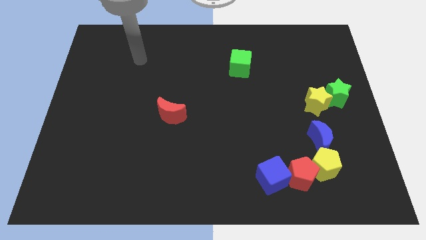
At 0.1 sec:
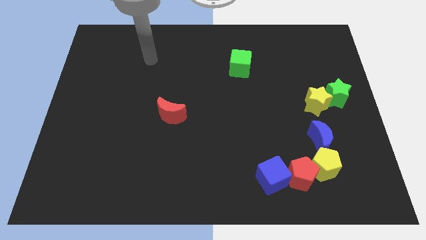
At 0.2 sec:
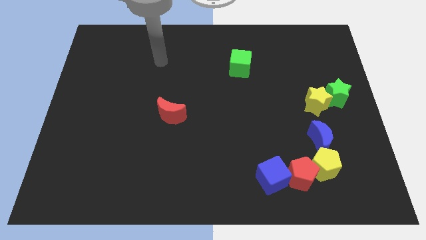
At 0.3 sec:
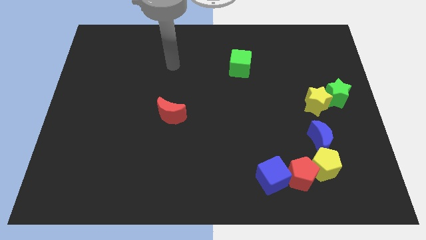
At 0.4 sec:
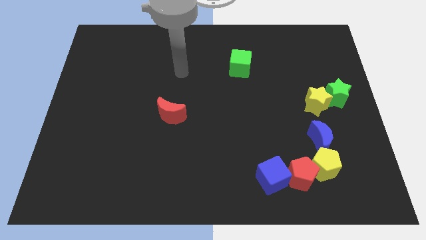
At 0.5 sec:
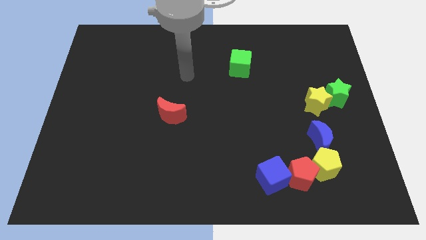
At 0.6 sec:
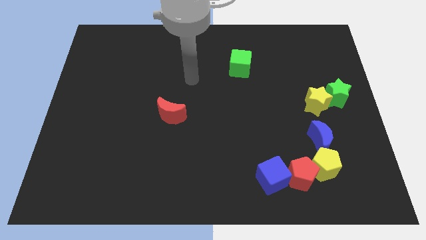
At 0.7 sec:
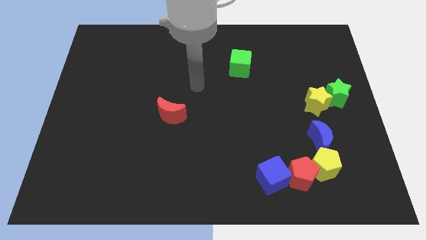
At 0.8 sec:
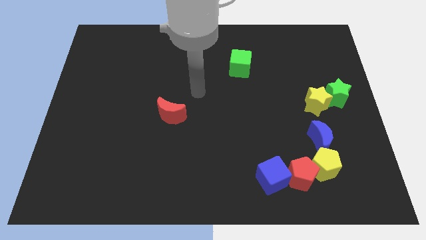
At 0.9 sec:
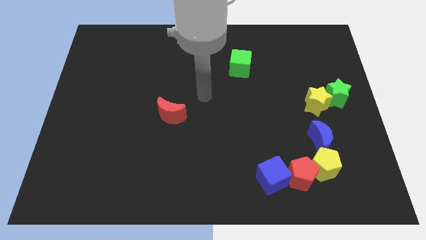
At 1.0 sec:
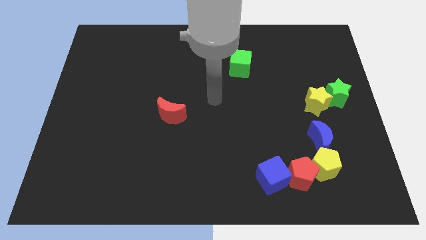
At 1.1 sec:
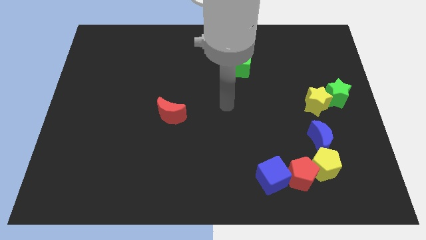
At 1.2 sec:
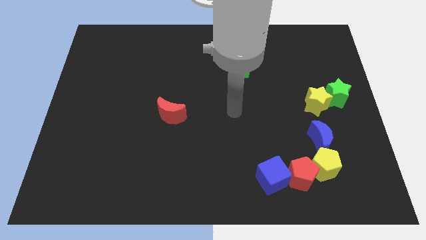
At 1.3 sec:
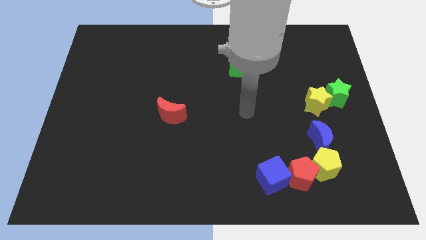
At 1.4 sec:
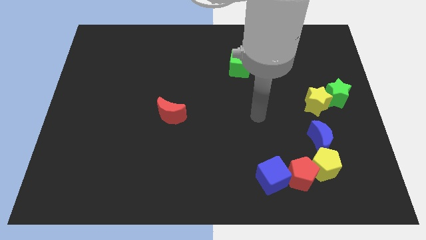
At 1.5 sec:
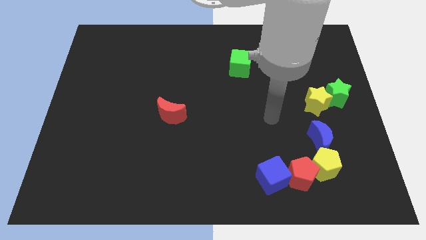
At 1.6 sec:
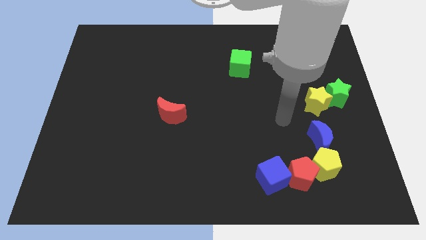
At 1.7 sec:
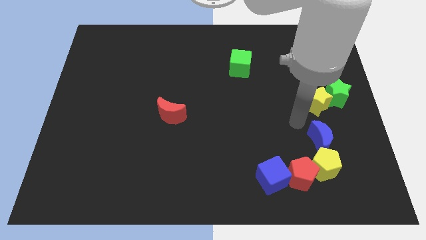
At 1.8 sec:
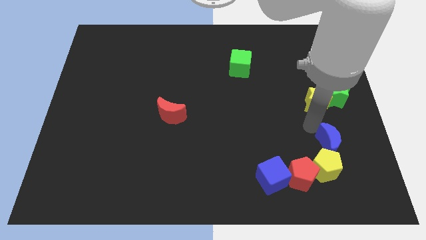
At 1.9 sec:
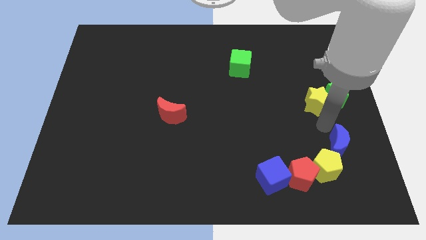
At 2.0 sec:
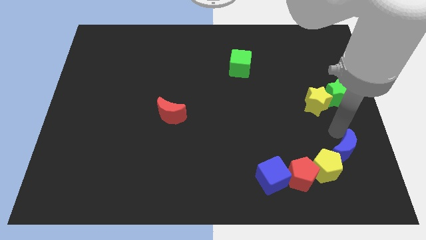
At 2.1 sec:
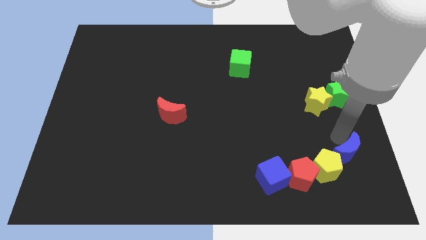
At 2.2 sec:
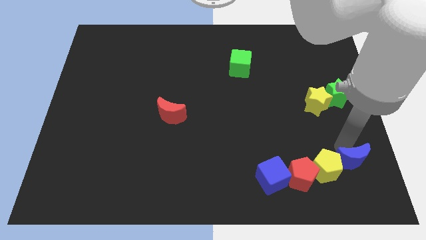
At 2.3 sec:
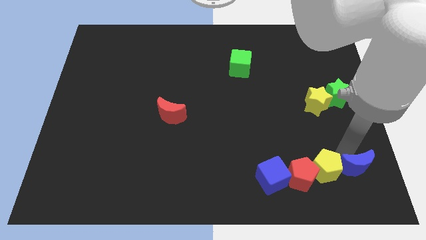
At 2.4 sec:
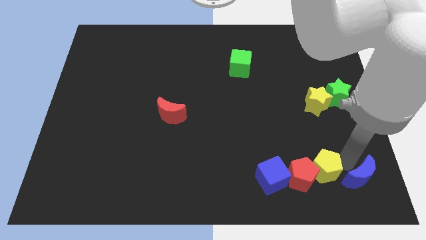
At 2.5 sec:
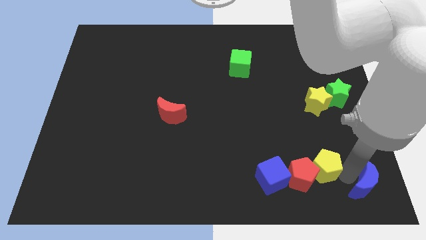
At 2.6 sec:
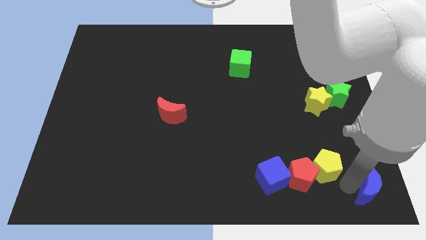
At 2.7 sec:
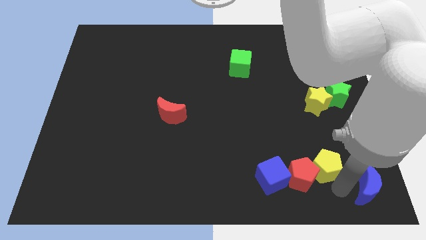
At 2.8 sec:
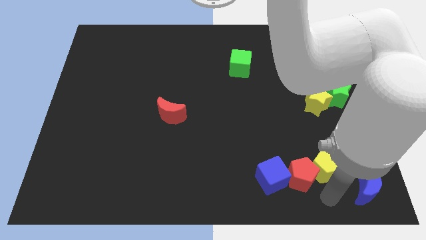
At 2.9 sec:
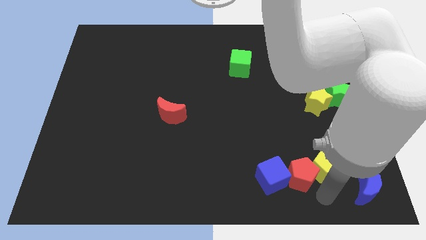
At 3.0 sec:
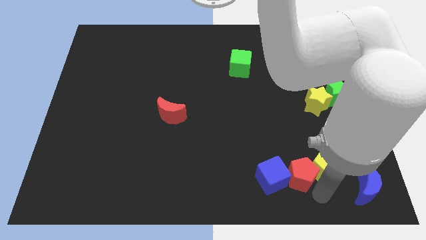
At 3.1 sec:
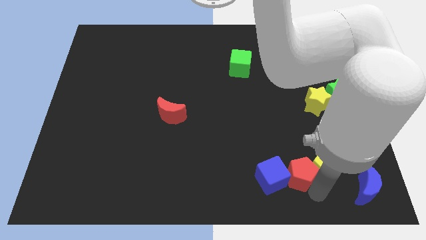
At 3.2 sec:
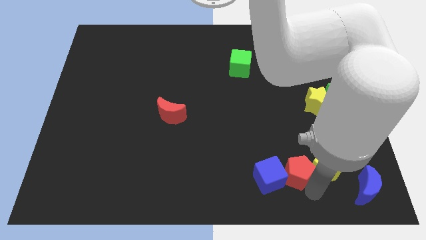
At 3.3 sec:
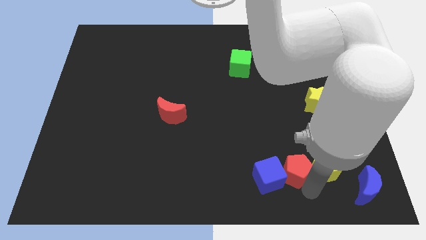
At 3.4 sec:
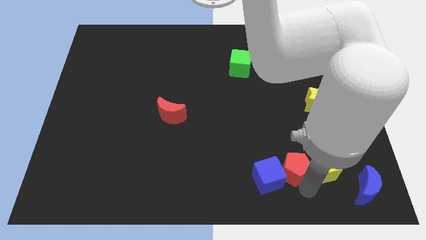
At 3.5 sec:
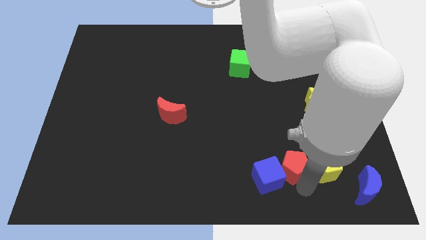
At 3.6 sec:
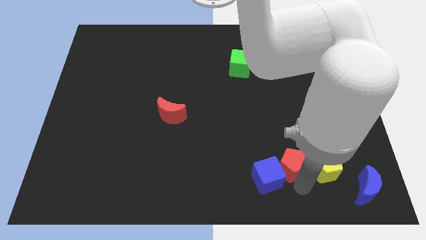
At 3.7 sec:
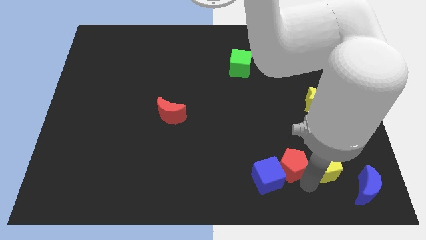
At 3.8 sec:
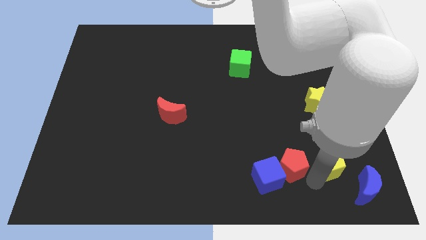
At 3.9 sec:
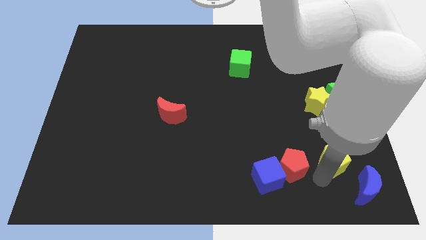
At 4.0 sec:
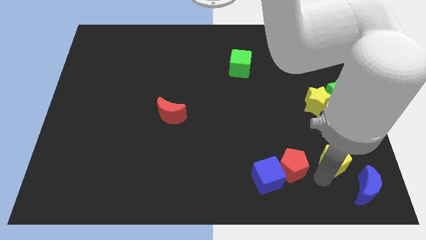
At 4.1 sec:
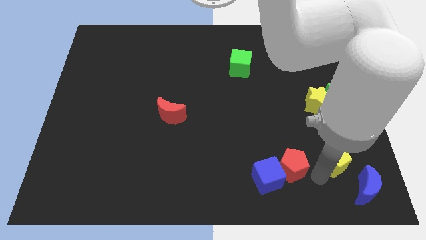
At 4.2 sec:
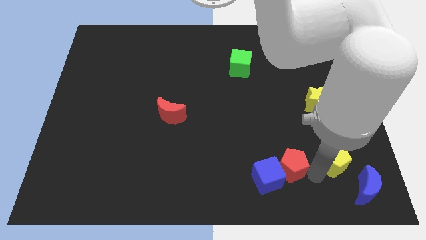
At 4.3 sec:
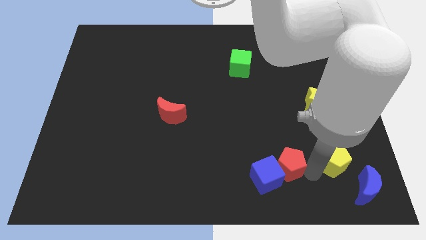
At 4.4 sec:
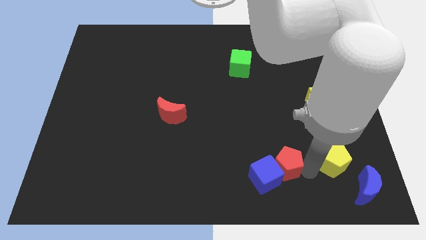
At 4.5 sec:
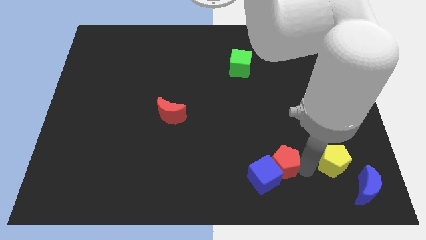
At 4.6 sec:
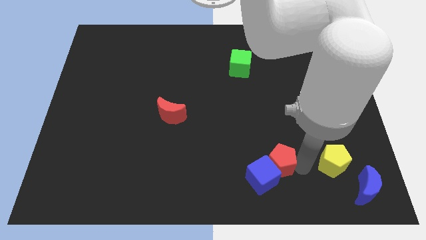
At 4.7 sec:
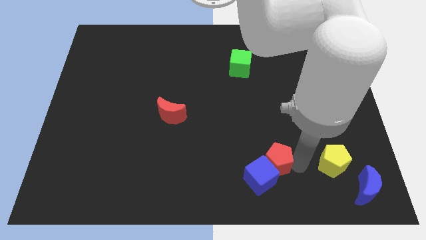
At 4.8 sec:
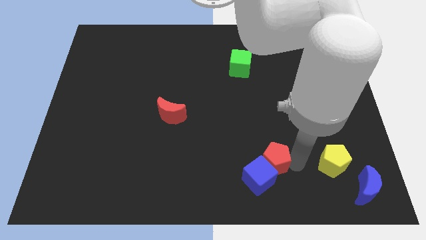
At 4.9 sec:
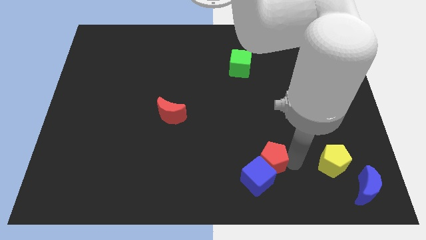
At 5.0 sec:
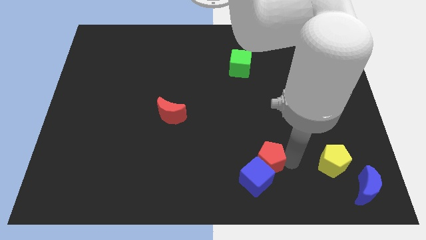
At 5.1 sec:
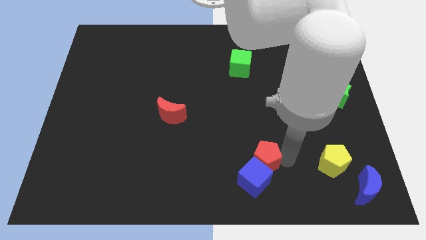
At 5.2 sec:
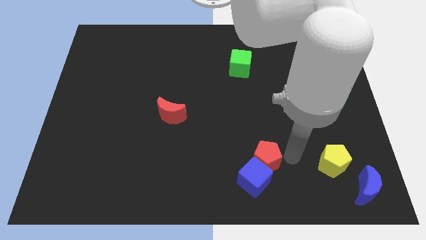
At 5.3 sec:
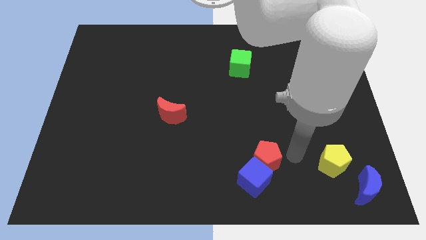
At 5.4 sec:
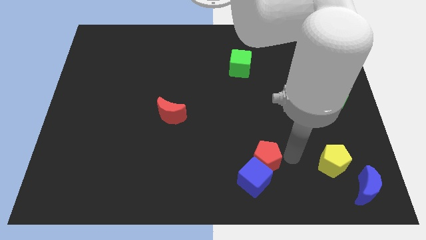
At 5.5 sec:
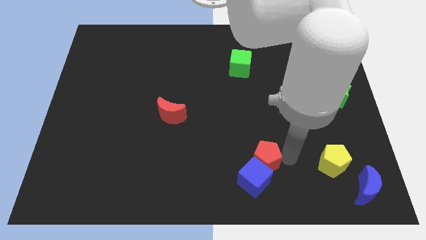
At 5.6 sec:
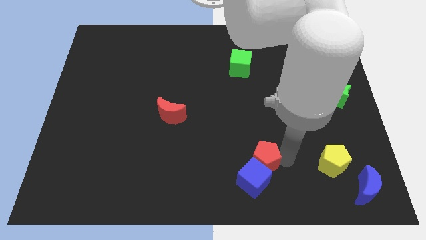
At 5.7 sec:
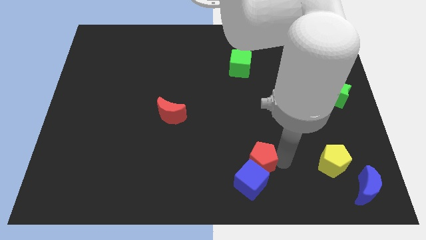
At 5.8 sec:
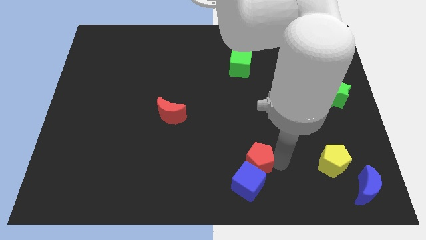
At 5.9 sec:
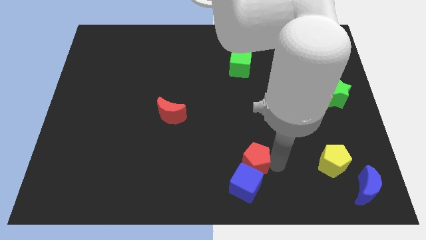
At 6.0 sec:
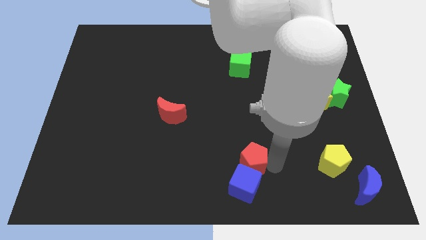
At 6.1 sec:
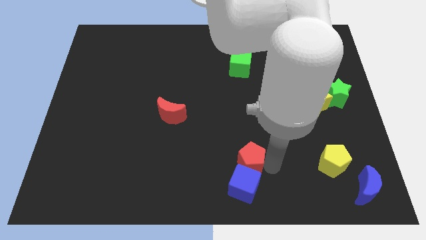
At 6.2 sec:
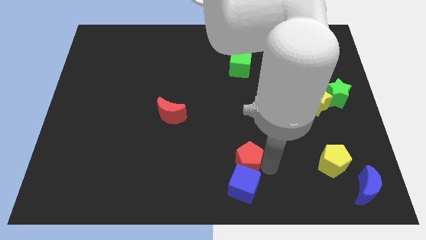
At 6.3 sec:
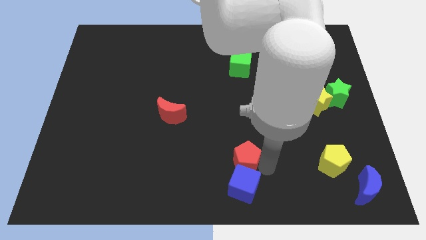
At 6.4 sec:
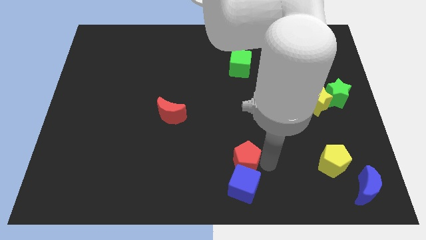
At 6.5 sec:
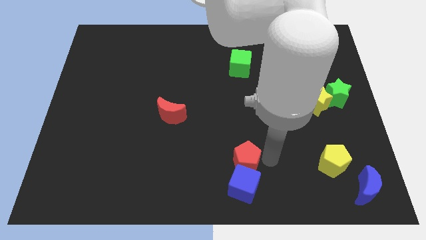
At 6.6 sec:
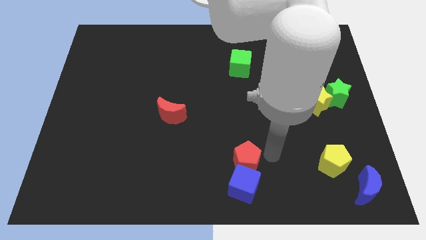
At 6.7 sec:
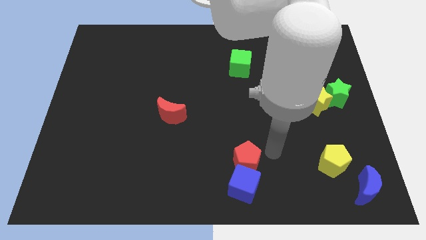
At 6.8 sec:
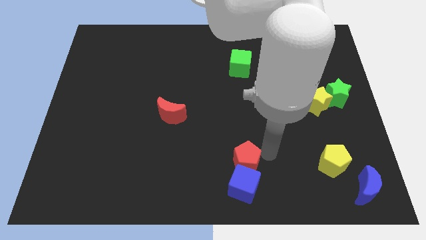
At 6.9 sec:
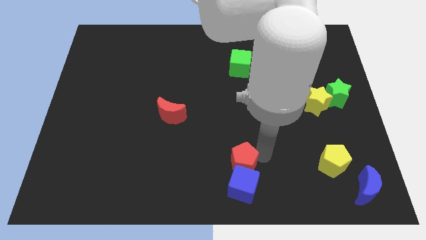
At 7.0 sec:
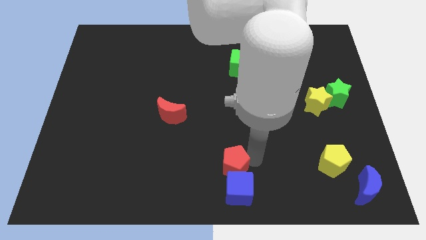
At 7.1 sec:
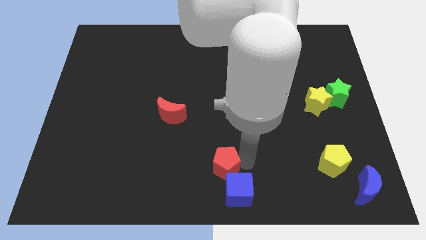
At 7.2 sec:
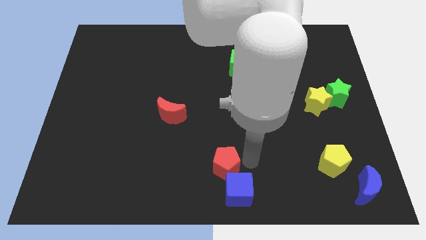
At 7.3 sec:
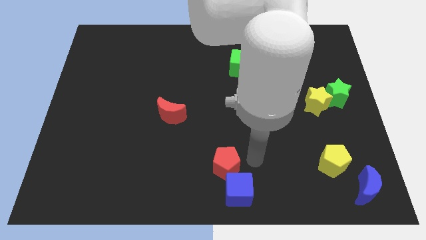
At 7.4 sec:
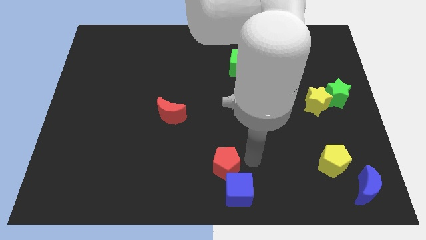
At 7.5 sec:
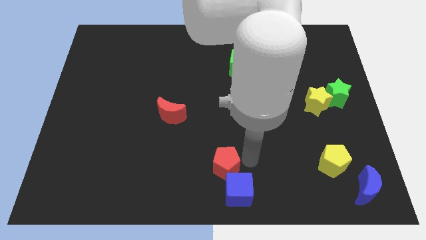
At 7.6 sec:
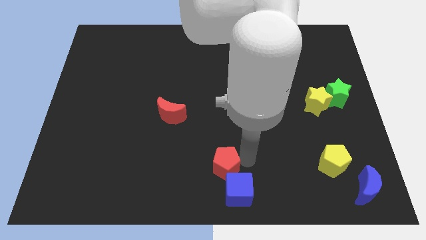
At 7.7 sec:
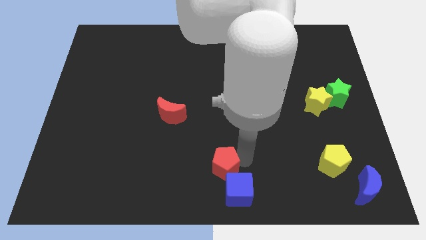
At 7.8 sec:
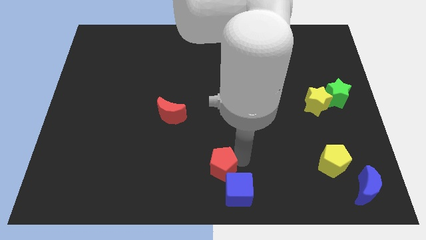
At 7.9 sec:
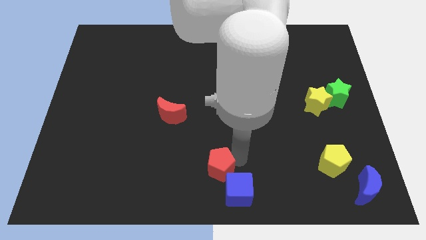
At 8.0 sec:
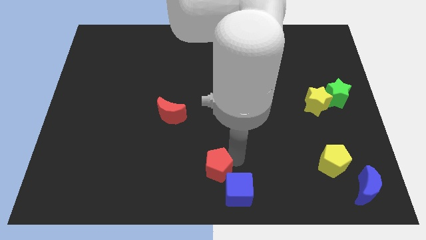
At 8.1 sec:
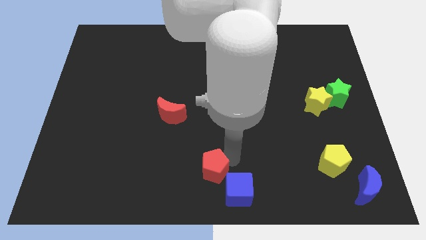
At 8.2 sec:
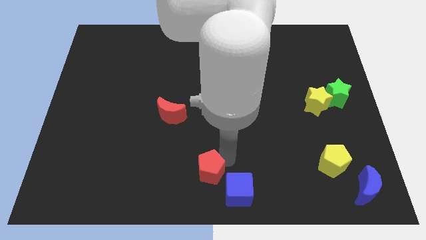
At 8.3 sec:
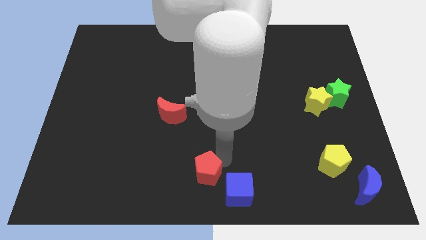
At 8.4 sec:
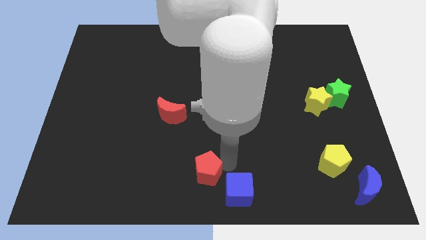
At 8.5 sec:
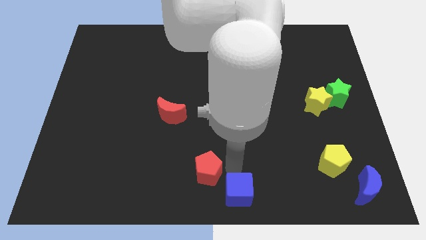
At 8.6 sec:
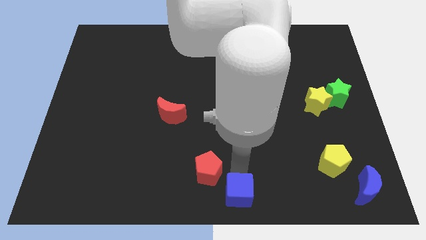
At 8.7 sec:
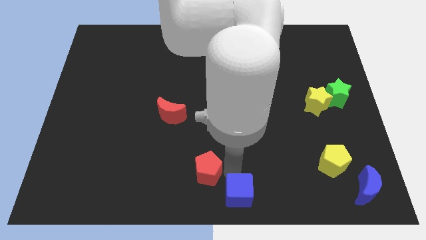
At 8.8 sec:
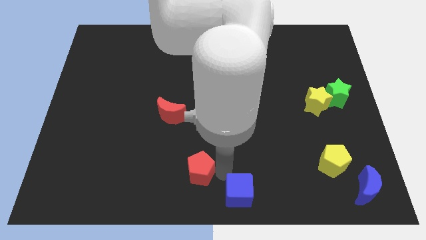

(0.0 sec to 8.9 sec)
slide the red pentagon to the left
